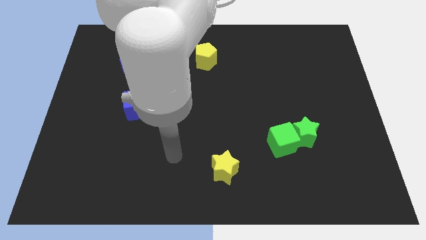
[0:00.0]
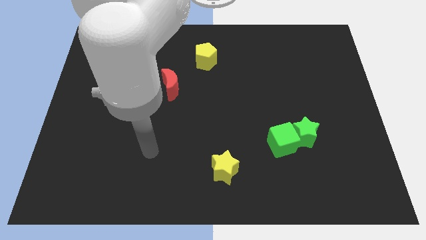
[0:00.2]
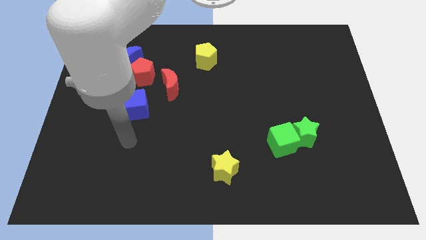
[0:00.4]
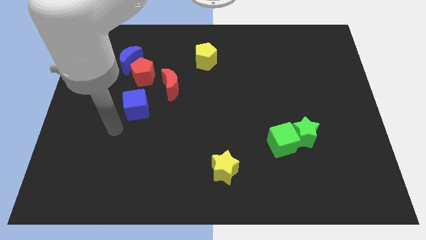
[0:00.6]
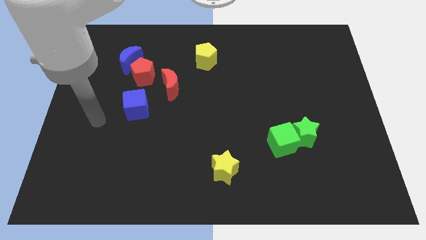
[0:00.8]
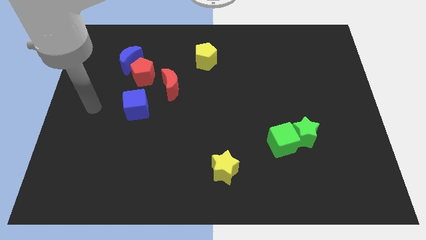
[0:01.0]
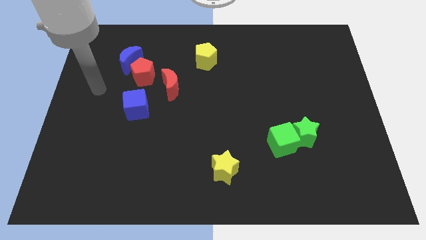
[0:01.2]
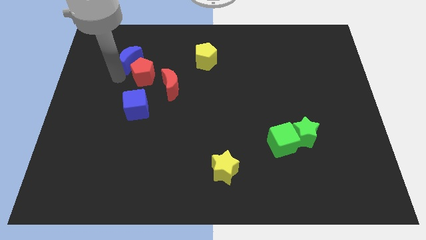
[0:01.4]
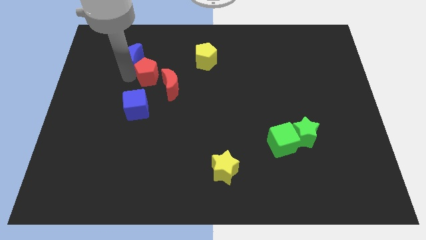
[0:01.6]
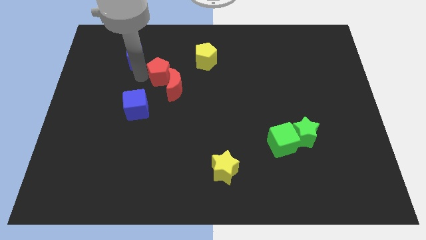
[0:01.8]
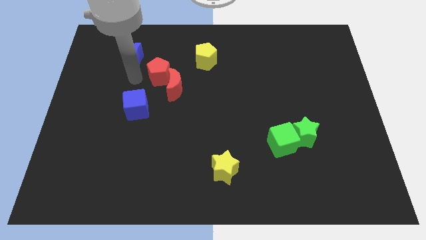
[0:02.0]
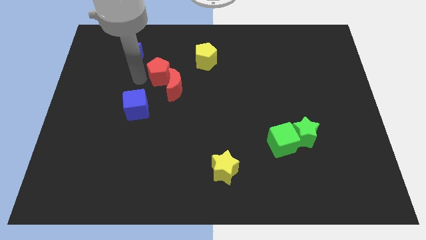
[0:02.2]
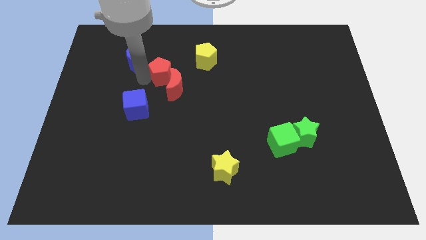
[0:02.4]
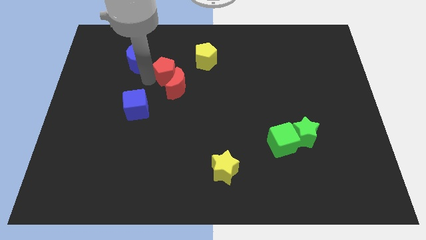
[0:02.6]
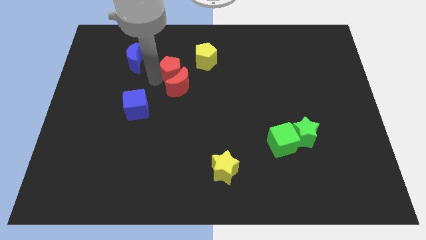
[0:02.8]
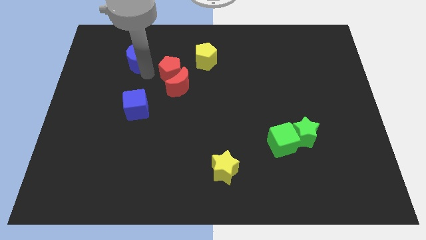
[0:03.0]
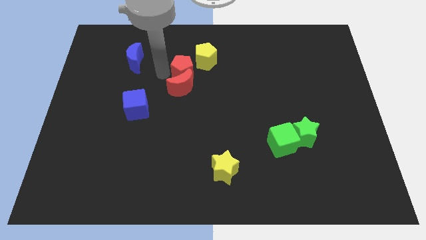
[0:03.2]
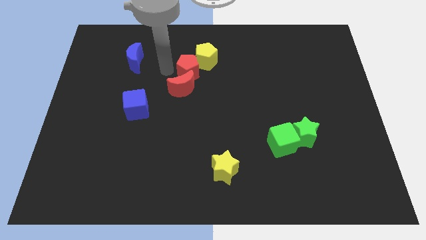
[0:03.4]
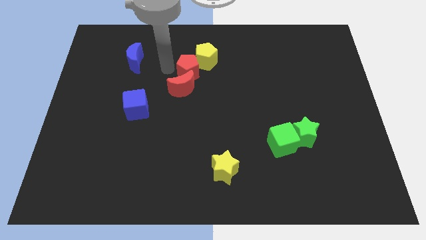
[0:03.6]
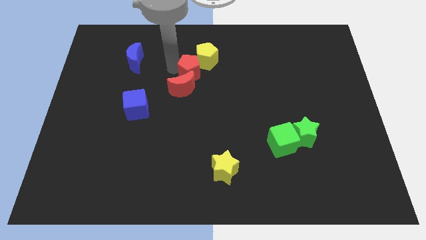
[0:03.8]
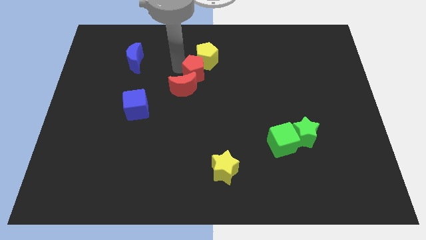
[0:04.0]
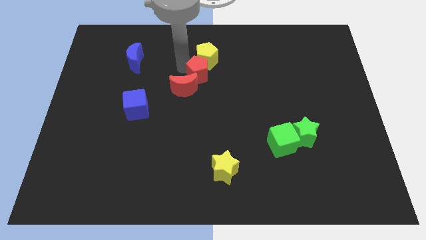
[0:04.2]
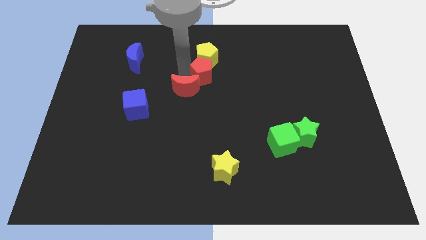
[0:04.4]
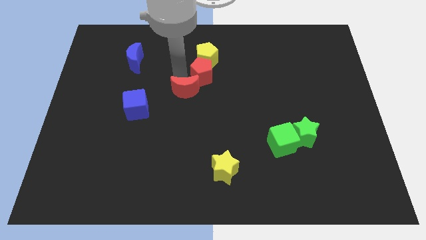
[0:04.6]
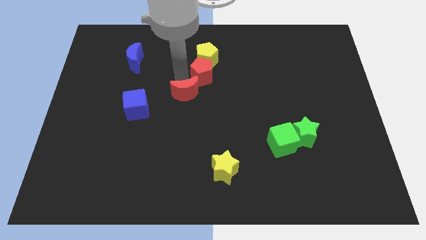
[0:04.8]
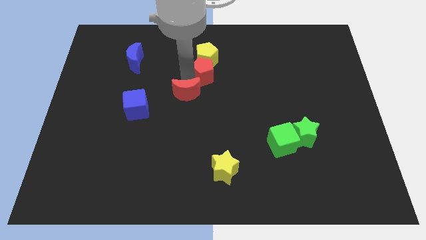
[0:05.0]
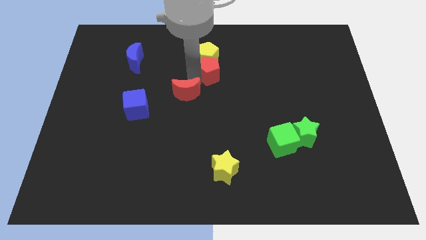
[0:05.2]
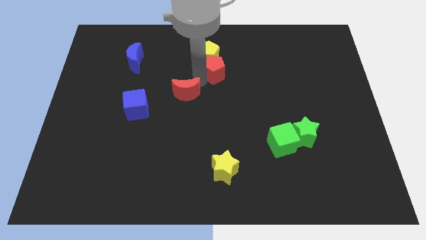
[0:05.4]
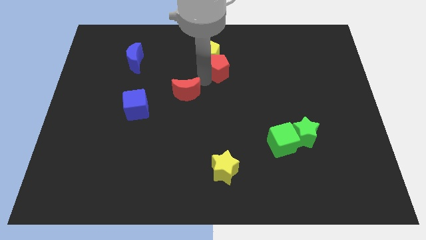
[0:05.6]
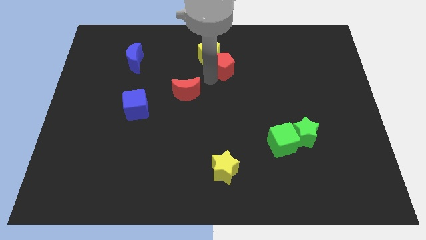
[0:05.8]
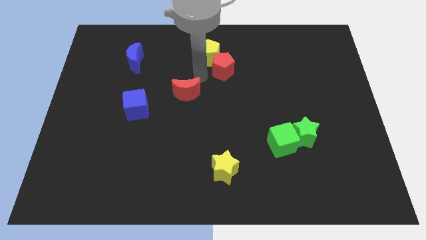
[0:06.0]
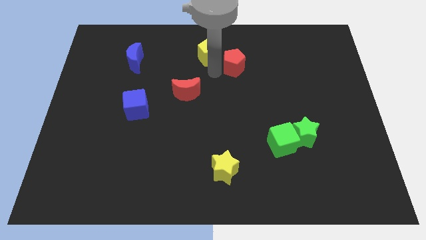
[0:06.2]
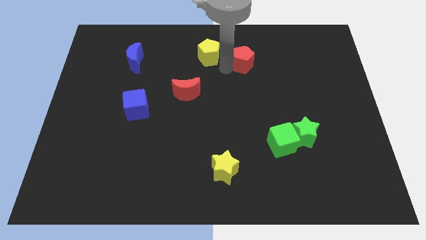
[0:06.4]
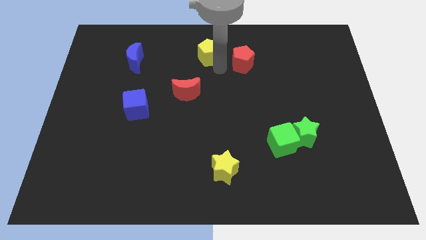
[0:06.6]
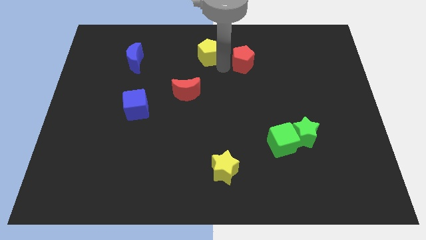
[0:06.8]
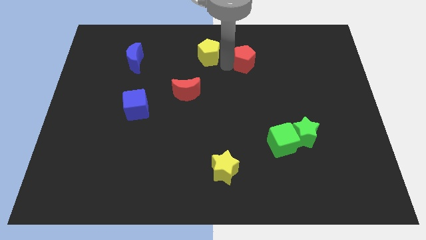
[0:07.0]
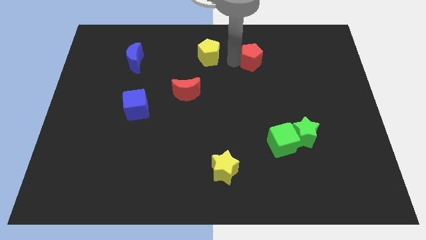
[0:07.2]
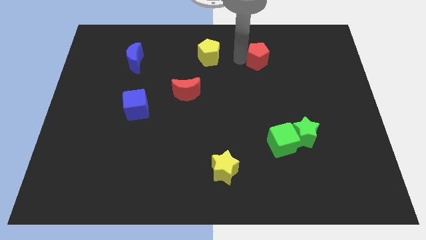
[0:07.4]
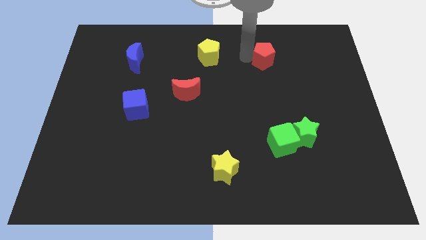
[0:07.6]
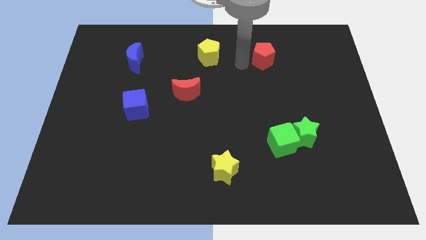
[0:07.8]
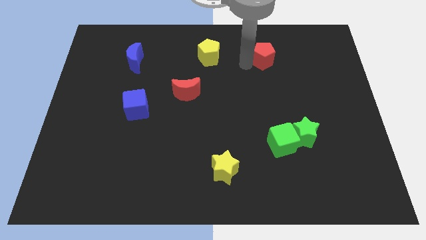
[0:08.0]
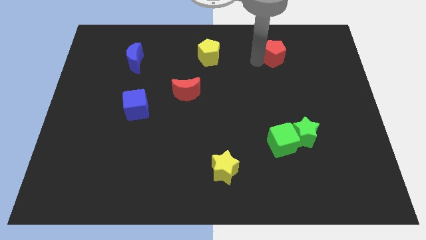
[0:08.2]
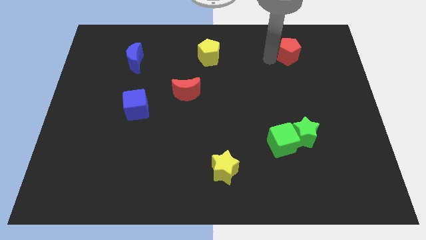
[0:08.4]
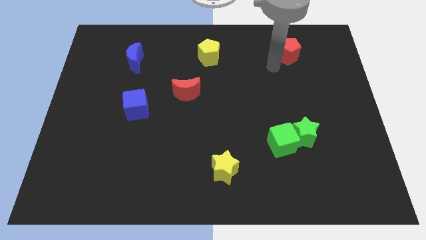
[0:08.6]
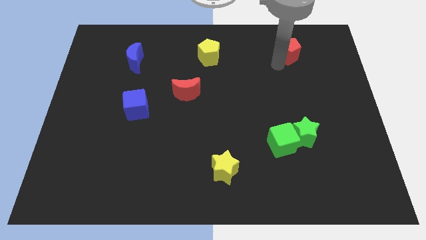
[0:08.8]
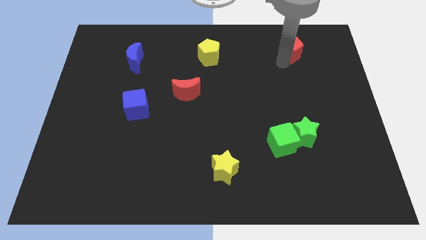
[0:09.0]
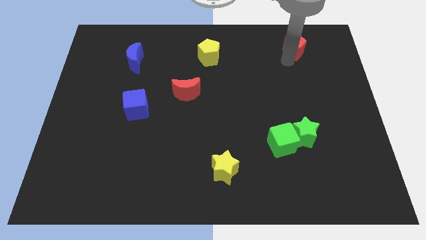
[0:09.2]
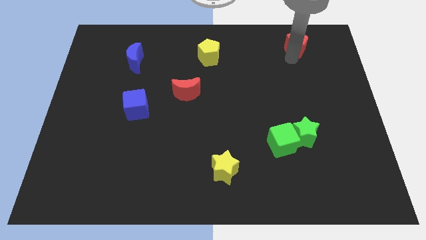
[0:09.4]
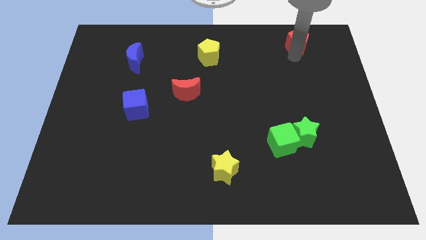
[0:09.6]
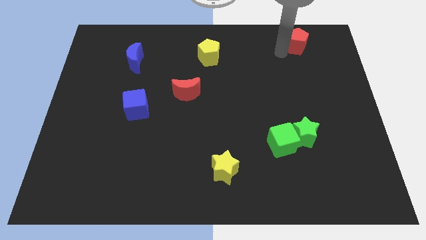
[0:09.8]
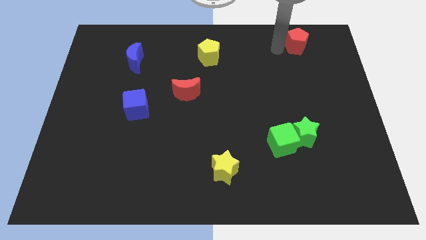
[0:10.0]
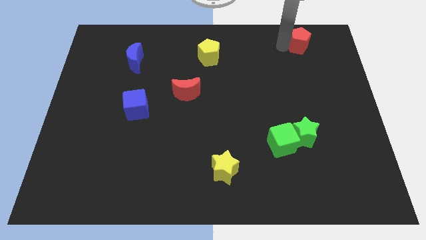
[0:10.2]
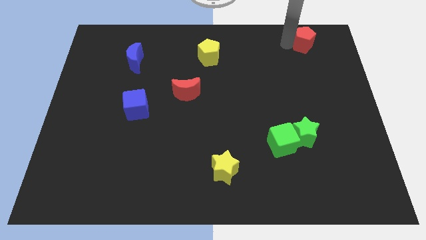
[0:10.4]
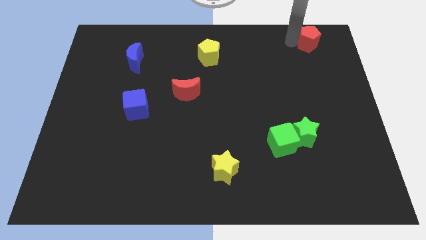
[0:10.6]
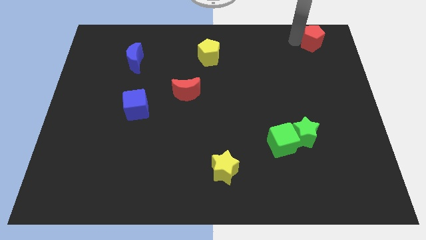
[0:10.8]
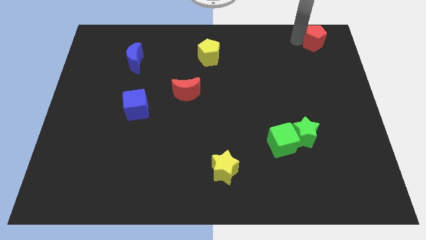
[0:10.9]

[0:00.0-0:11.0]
move the red pentagon to the upper right corner

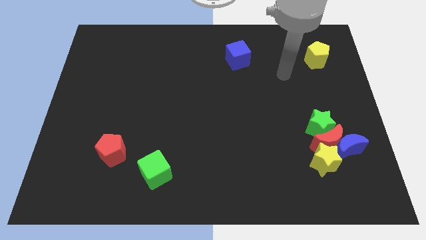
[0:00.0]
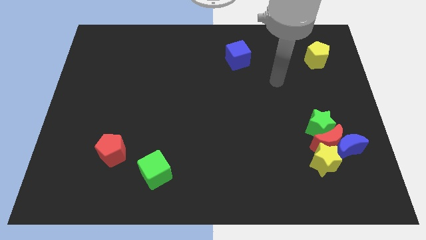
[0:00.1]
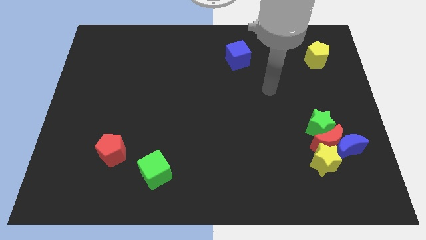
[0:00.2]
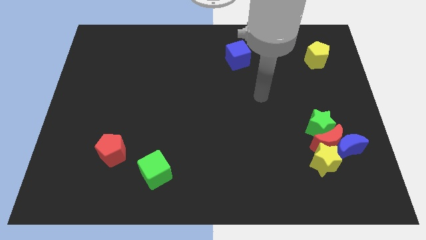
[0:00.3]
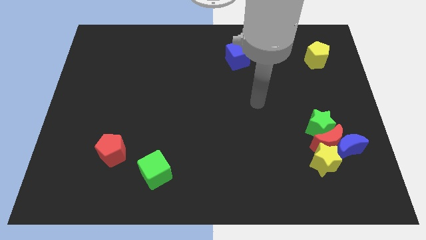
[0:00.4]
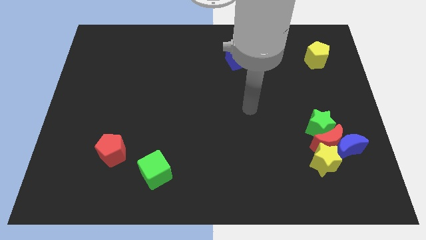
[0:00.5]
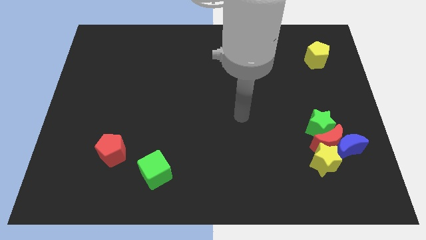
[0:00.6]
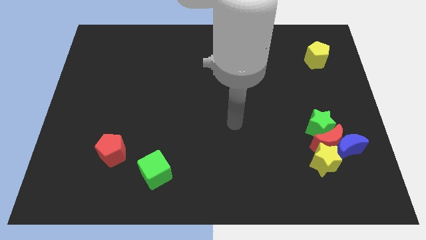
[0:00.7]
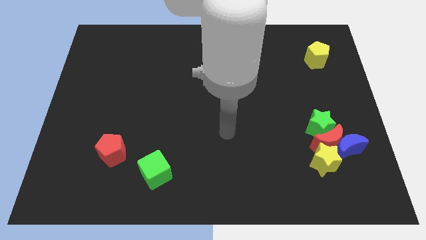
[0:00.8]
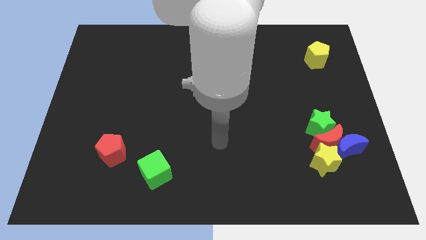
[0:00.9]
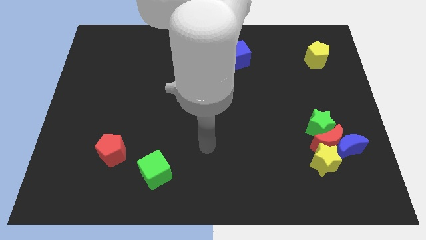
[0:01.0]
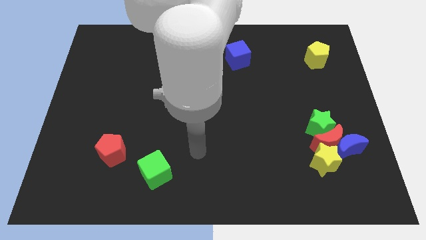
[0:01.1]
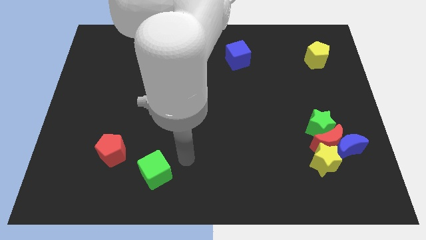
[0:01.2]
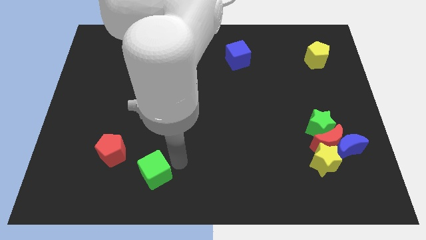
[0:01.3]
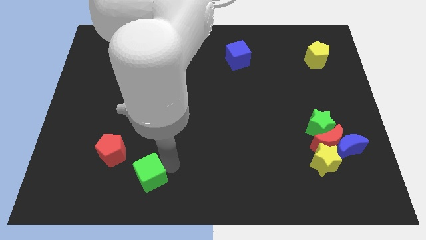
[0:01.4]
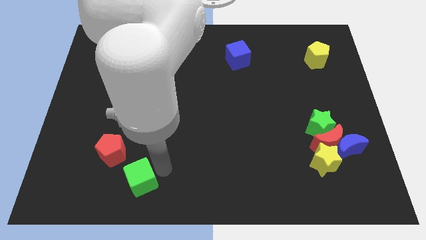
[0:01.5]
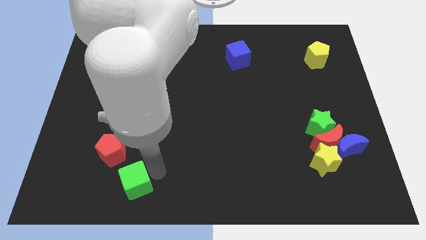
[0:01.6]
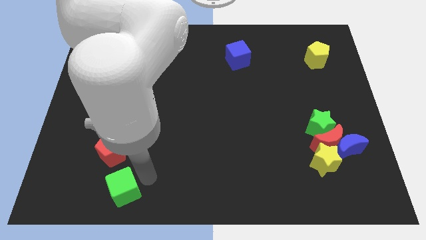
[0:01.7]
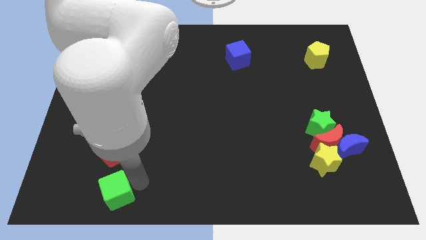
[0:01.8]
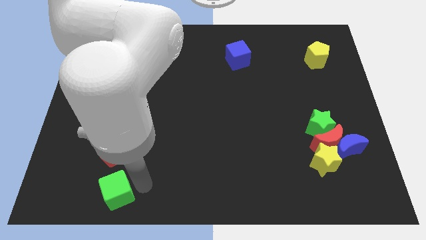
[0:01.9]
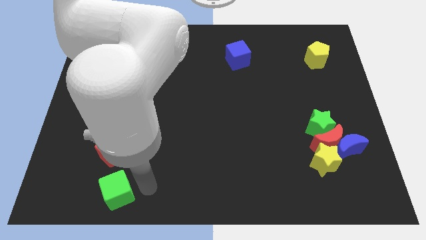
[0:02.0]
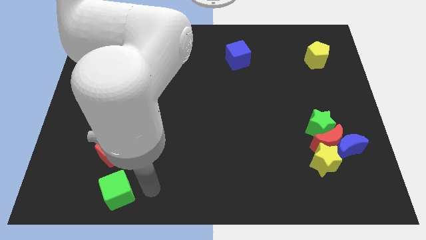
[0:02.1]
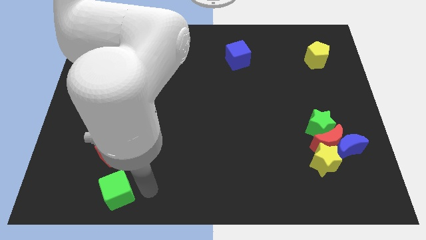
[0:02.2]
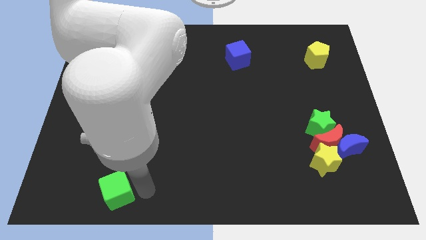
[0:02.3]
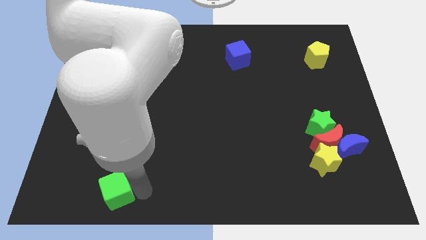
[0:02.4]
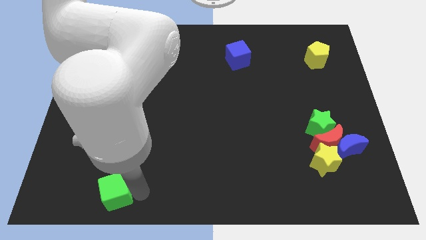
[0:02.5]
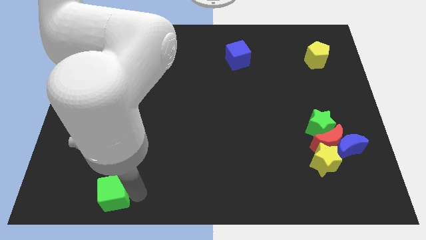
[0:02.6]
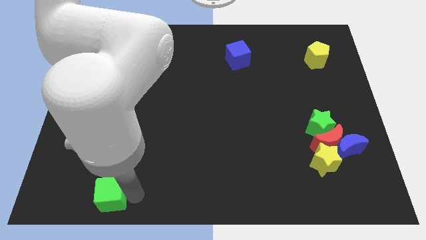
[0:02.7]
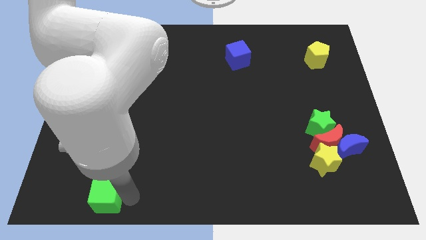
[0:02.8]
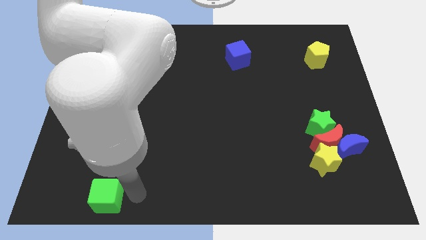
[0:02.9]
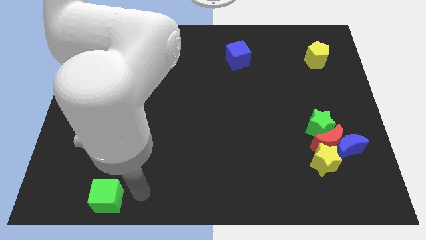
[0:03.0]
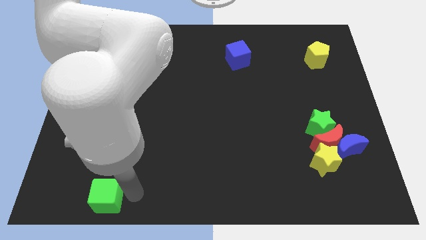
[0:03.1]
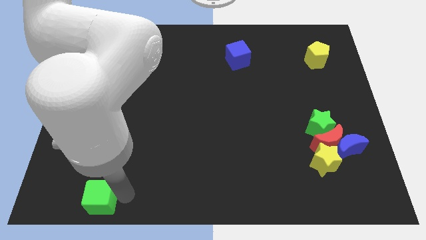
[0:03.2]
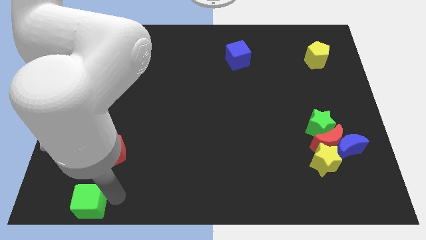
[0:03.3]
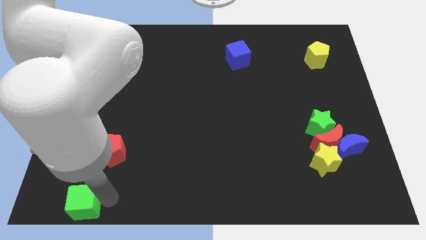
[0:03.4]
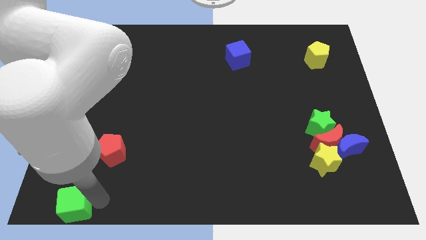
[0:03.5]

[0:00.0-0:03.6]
move the green cube to the bottom left corner
